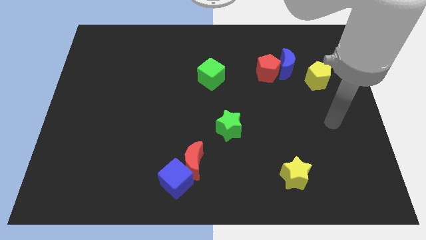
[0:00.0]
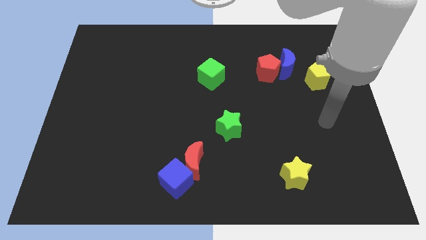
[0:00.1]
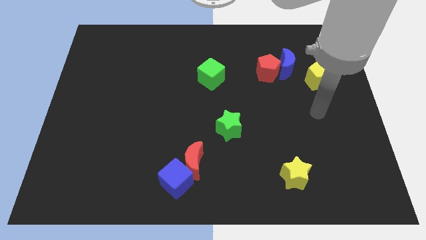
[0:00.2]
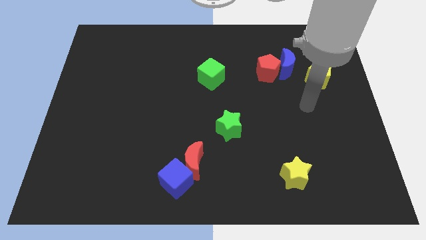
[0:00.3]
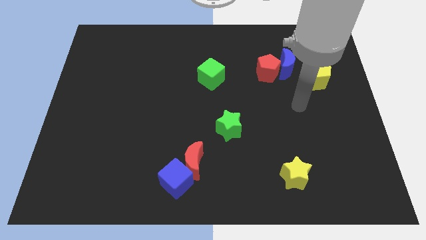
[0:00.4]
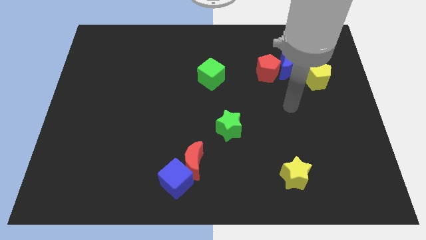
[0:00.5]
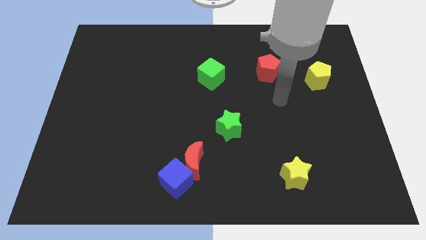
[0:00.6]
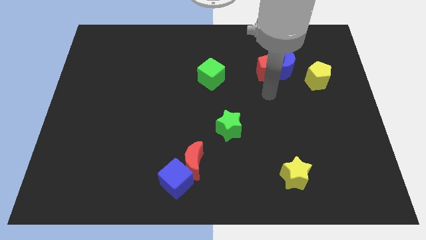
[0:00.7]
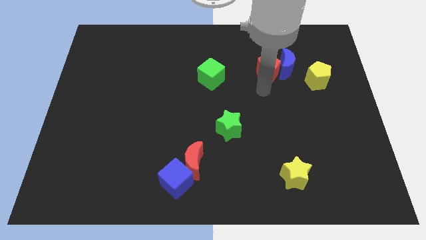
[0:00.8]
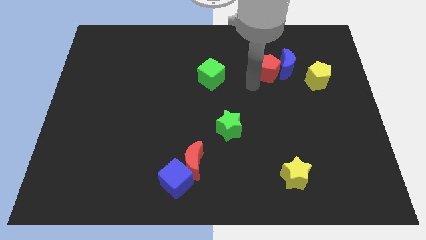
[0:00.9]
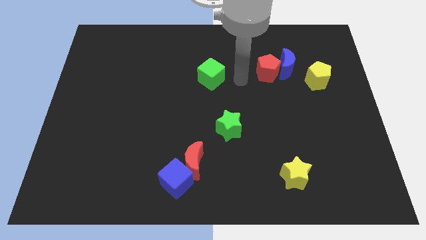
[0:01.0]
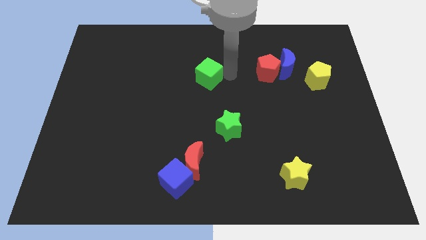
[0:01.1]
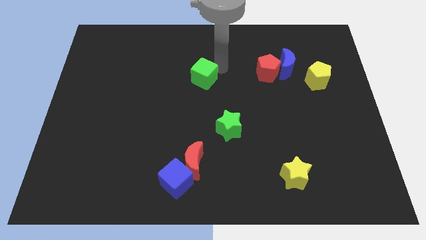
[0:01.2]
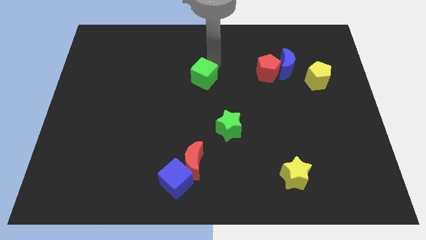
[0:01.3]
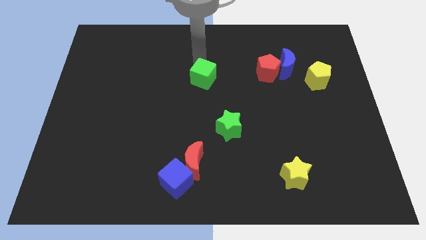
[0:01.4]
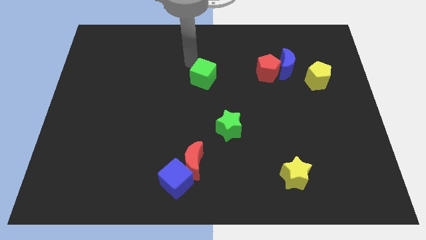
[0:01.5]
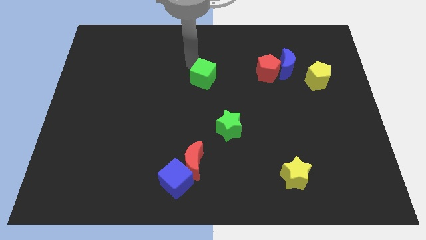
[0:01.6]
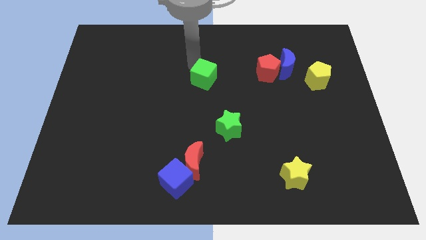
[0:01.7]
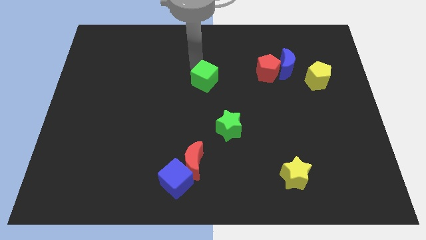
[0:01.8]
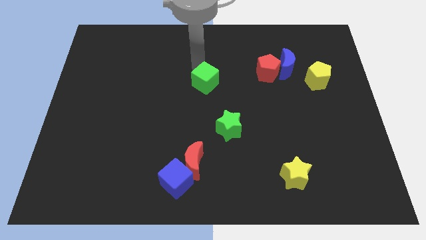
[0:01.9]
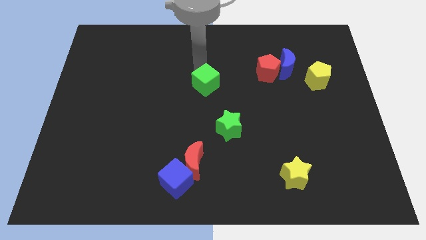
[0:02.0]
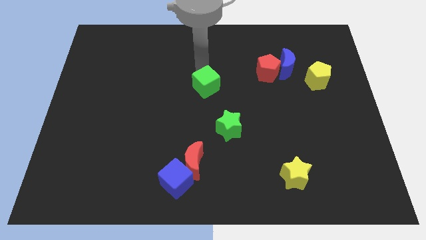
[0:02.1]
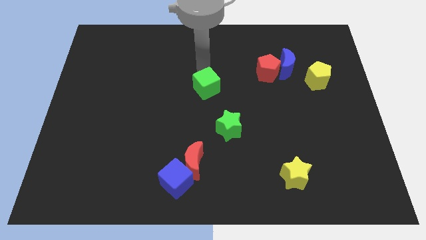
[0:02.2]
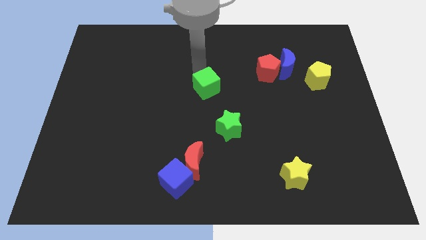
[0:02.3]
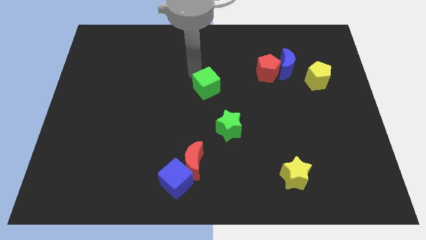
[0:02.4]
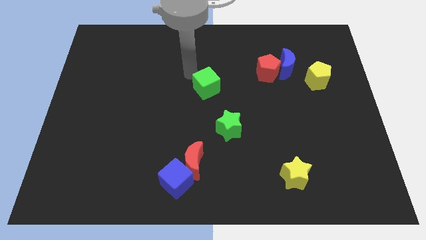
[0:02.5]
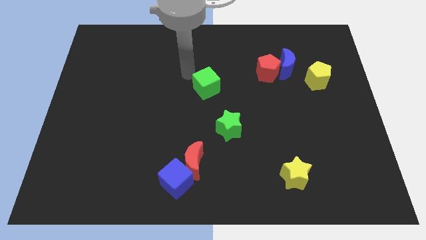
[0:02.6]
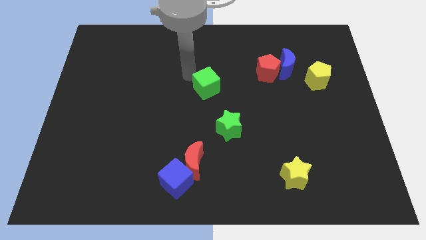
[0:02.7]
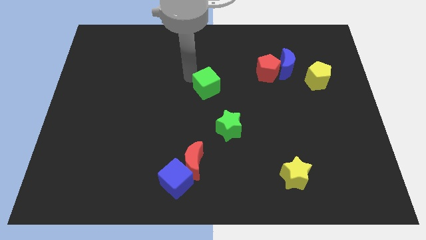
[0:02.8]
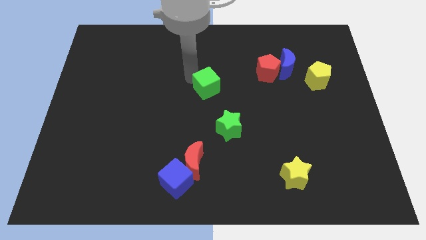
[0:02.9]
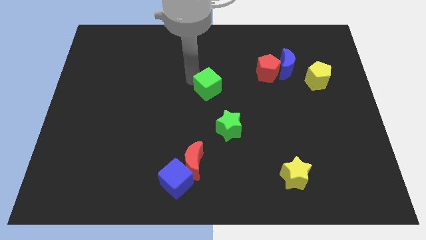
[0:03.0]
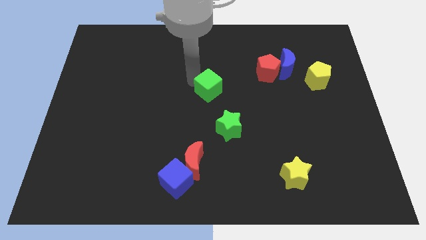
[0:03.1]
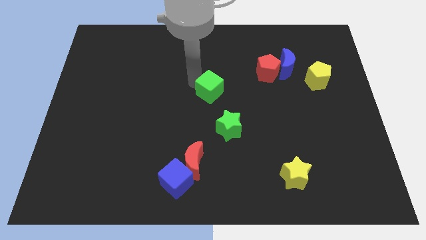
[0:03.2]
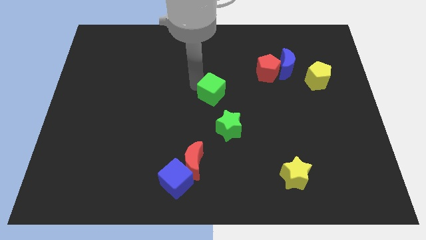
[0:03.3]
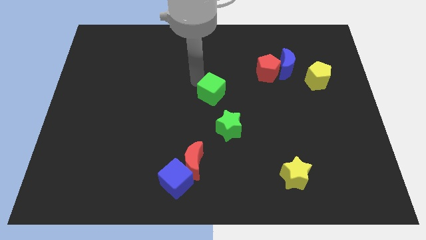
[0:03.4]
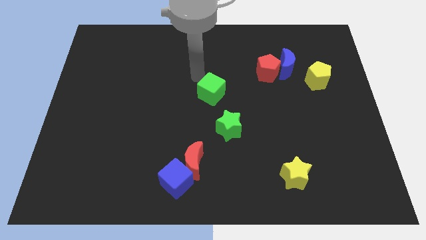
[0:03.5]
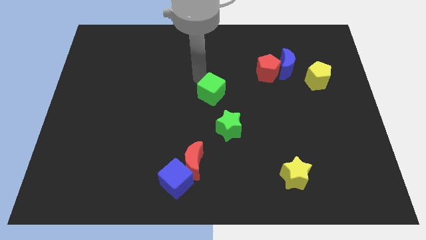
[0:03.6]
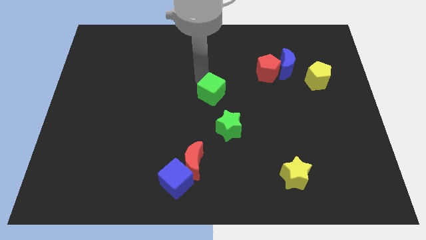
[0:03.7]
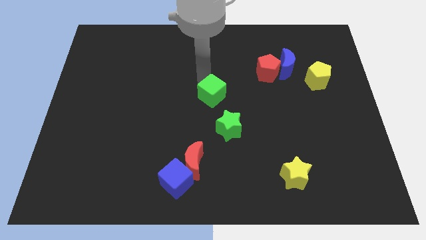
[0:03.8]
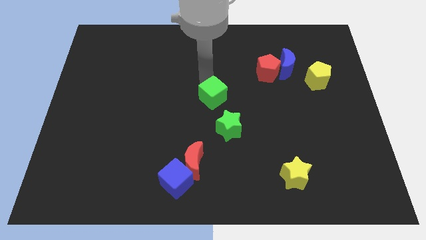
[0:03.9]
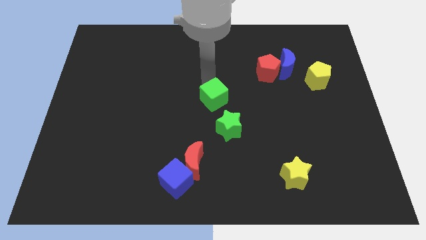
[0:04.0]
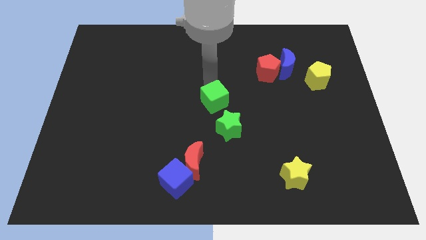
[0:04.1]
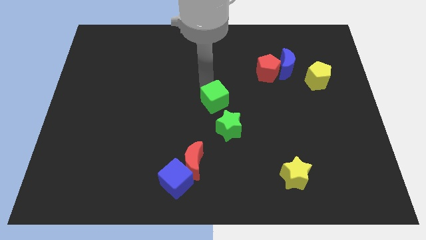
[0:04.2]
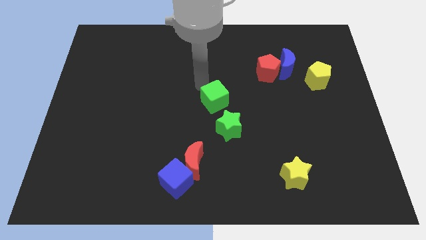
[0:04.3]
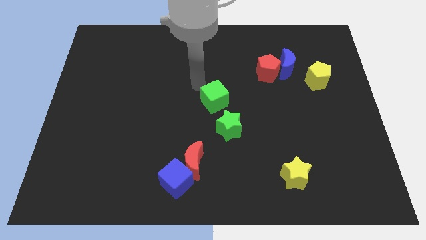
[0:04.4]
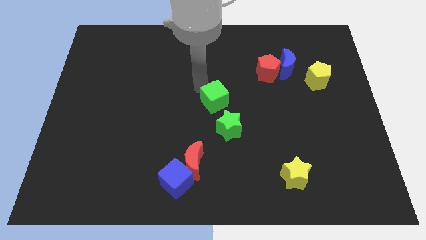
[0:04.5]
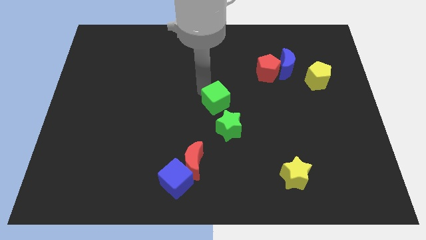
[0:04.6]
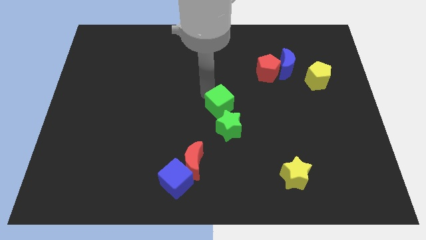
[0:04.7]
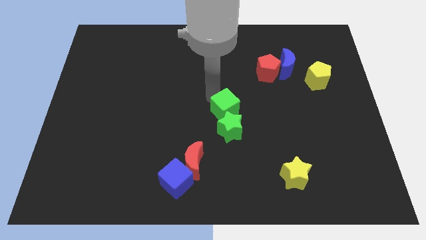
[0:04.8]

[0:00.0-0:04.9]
put the green cube next to the green star

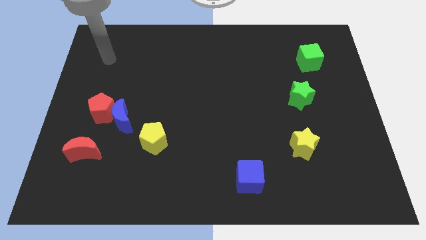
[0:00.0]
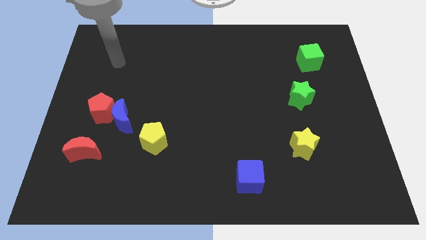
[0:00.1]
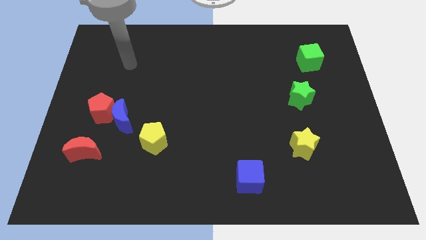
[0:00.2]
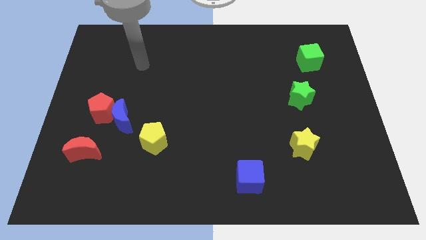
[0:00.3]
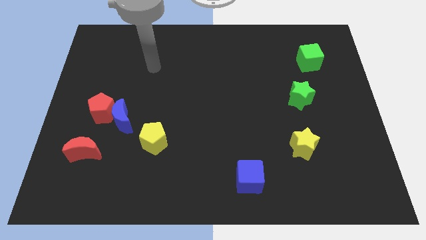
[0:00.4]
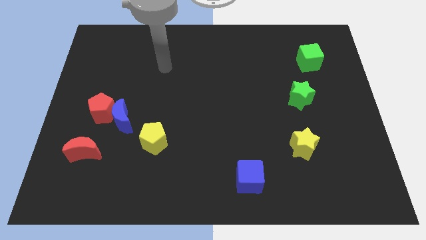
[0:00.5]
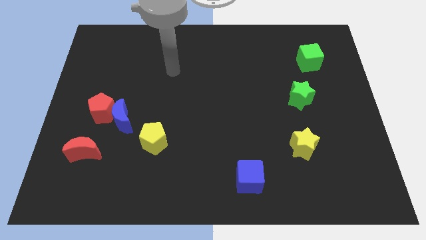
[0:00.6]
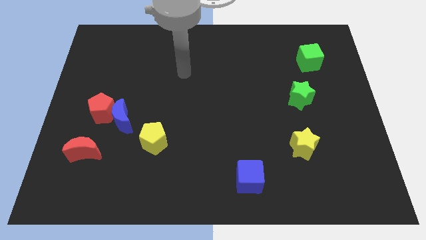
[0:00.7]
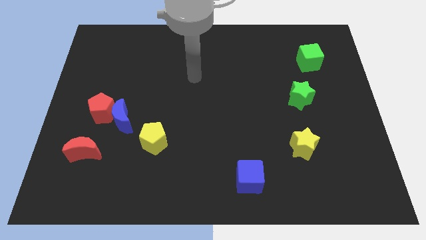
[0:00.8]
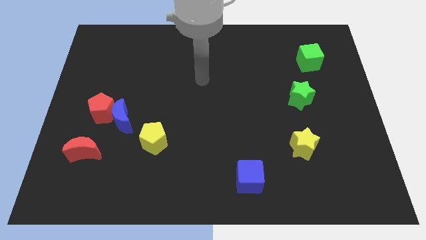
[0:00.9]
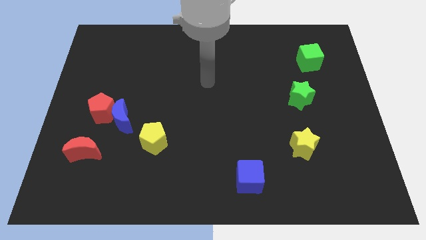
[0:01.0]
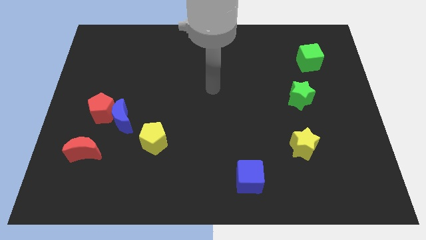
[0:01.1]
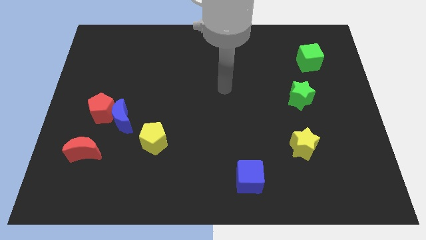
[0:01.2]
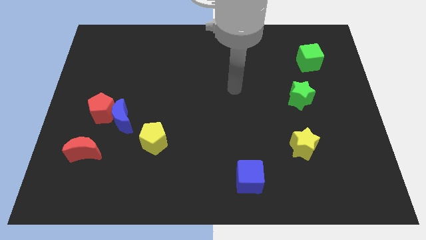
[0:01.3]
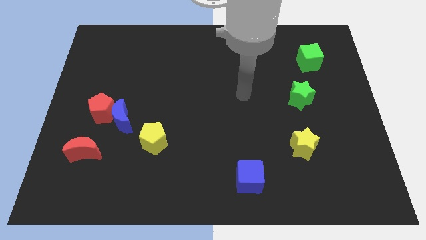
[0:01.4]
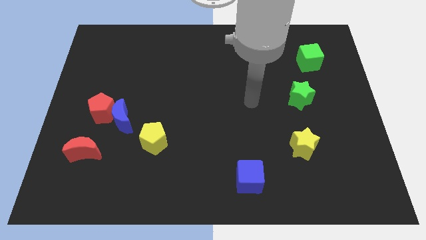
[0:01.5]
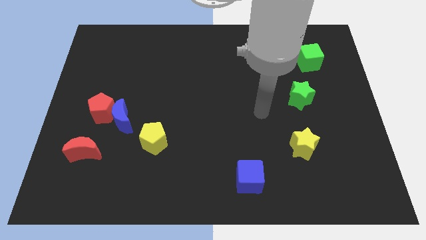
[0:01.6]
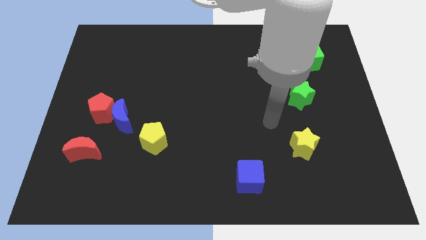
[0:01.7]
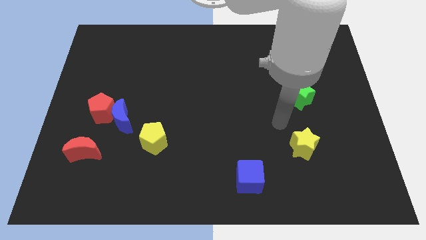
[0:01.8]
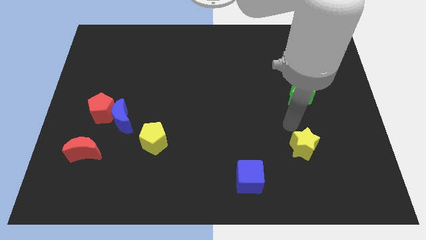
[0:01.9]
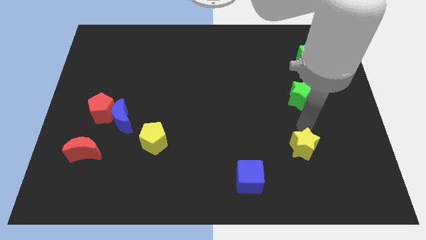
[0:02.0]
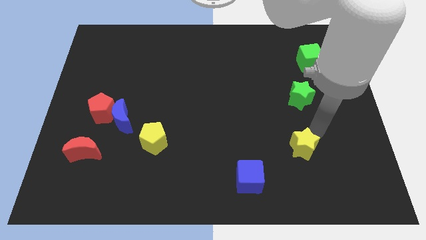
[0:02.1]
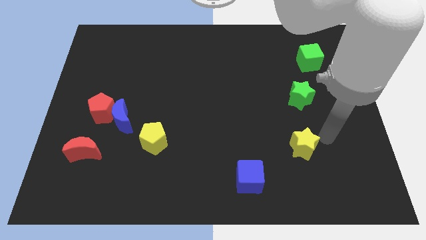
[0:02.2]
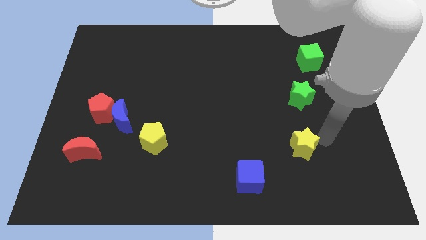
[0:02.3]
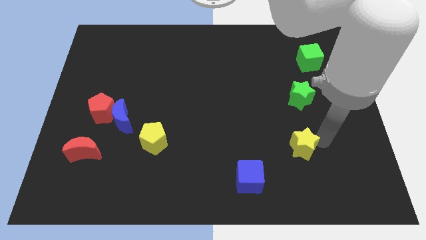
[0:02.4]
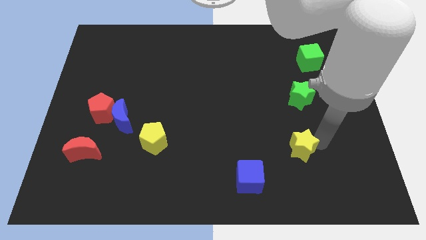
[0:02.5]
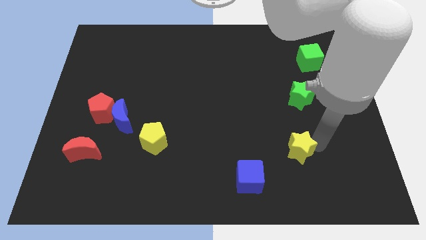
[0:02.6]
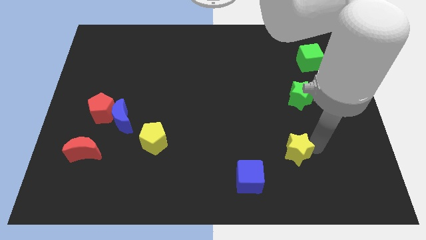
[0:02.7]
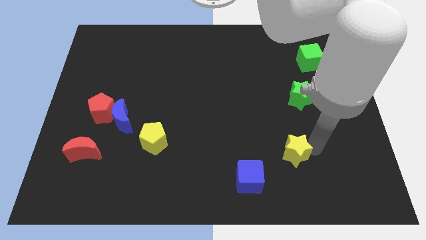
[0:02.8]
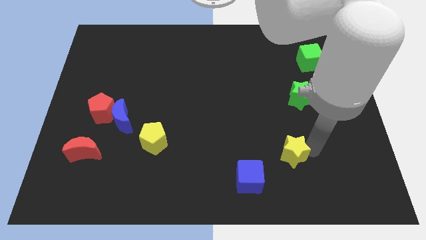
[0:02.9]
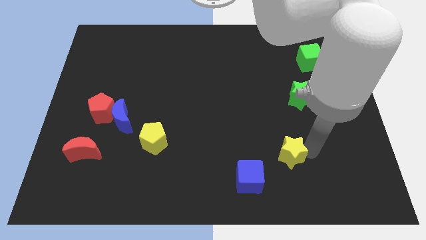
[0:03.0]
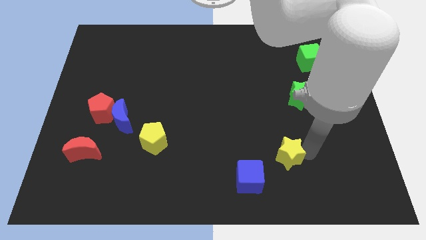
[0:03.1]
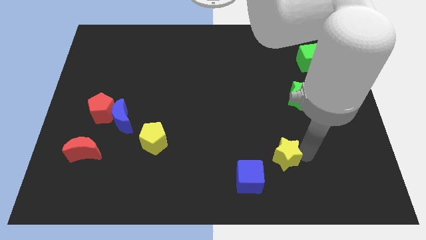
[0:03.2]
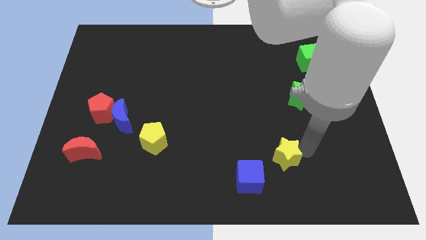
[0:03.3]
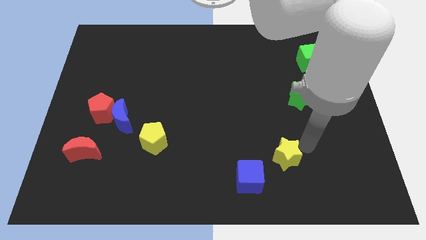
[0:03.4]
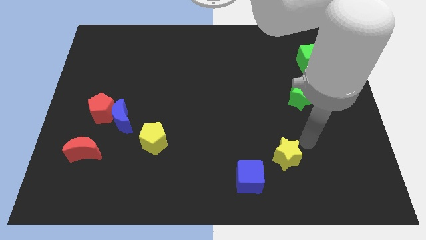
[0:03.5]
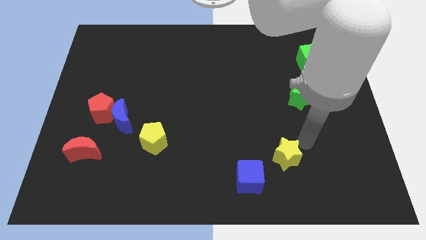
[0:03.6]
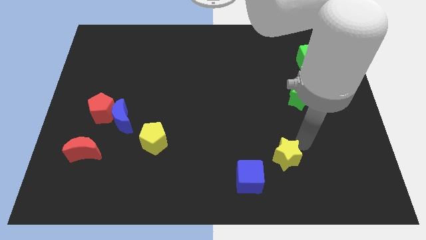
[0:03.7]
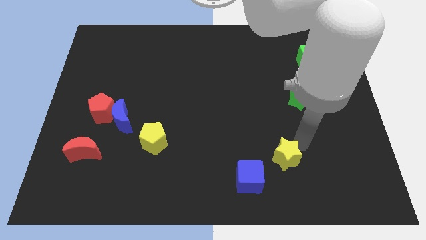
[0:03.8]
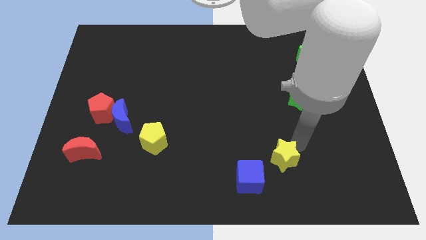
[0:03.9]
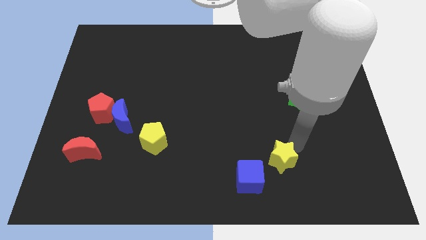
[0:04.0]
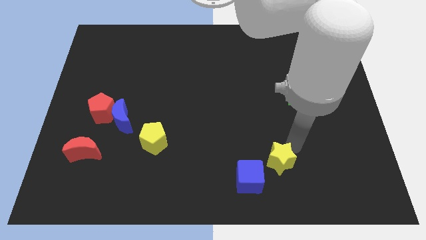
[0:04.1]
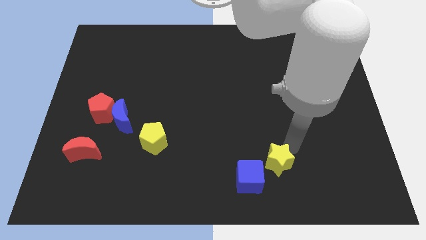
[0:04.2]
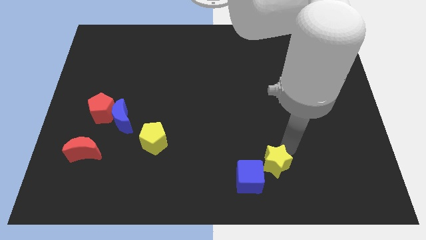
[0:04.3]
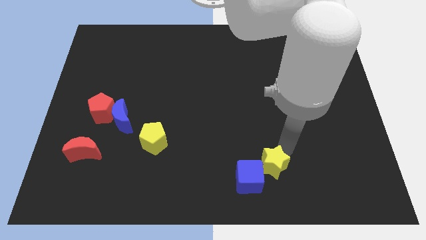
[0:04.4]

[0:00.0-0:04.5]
move the yellow star towards the blue cube
